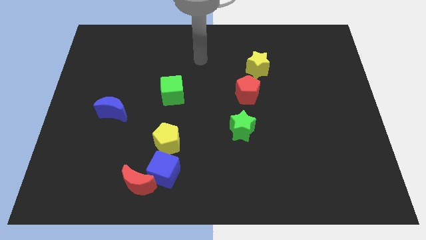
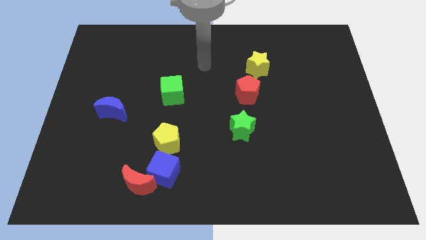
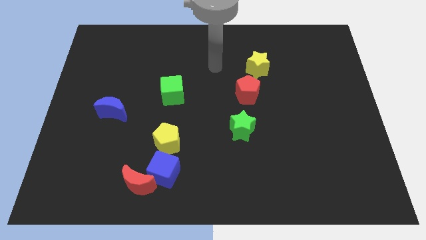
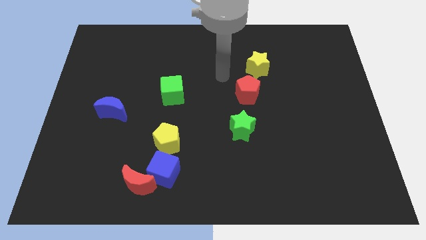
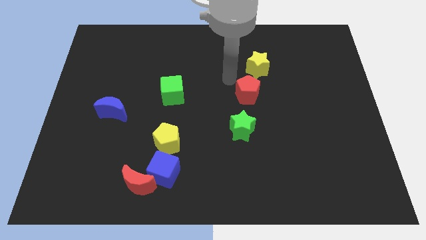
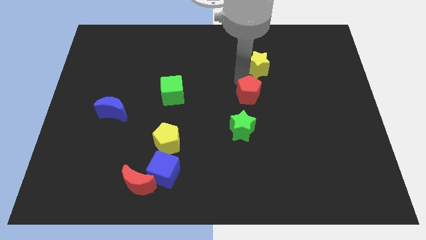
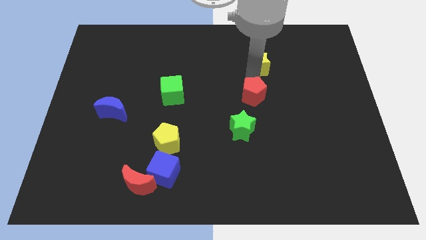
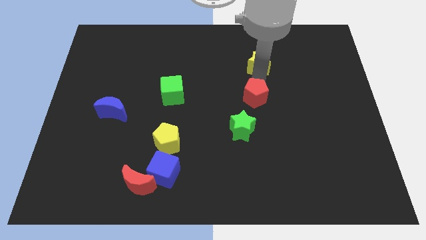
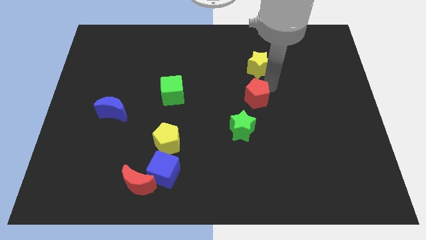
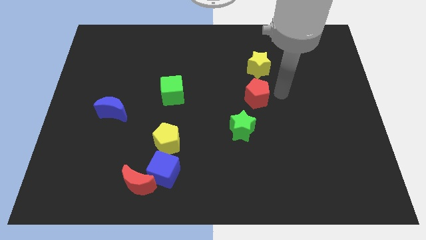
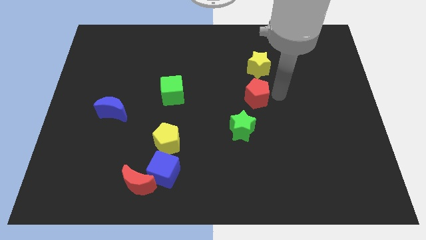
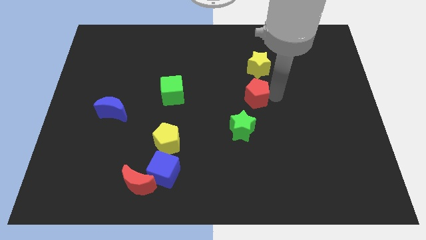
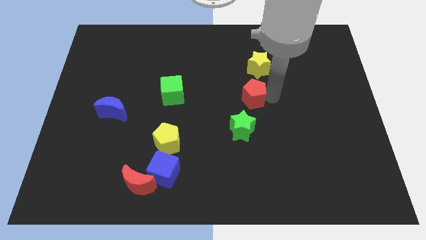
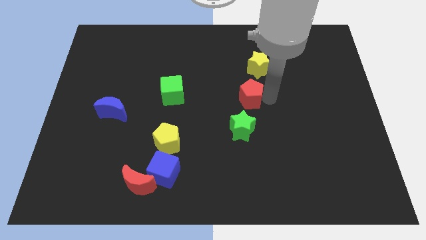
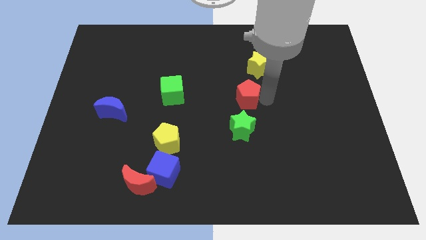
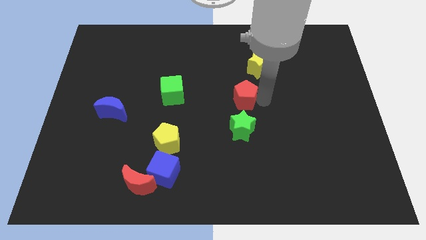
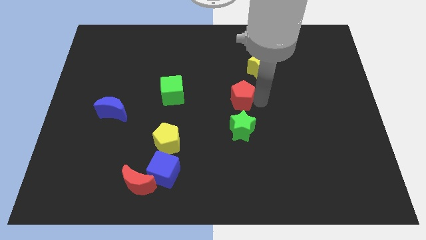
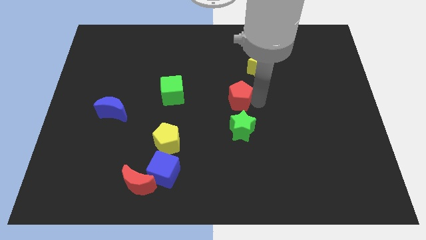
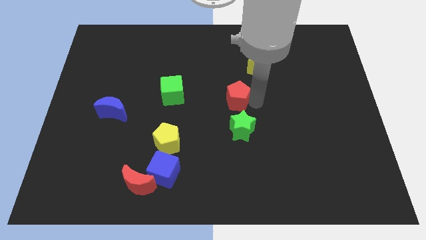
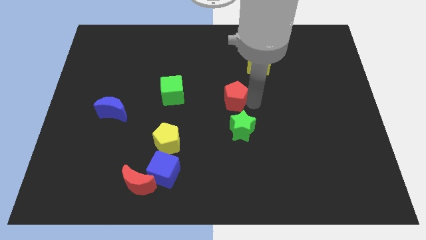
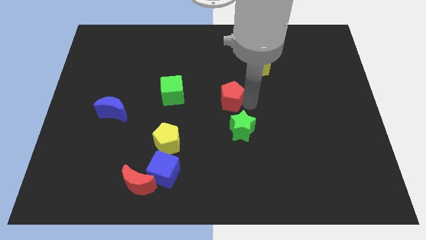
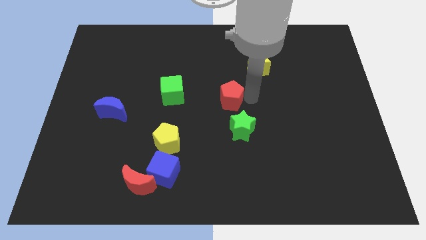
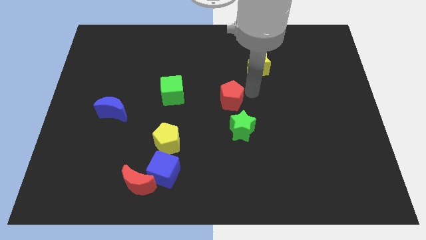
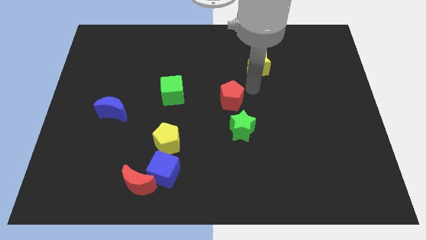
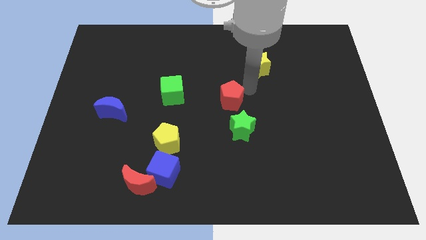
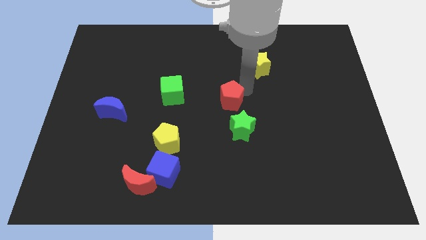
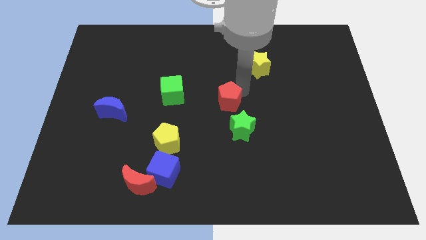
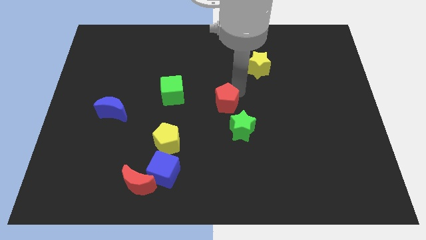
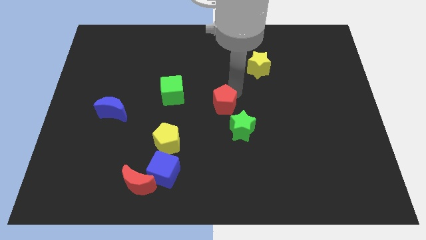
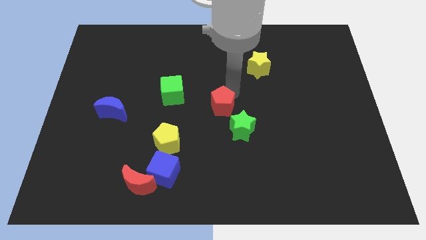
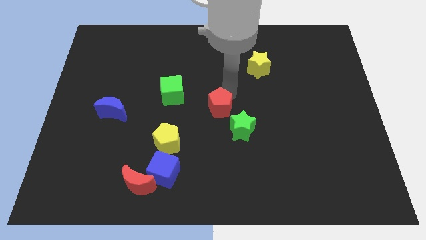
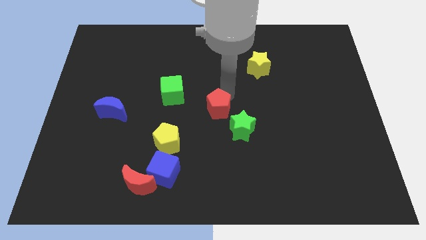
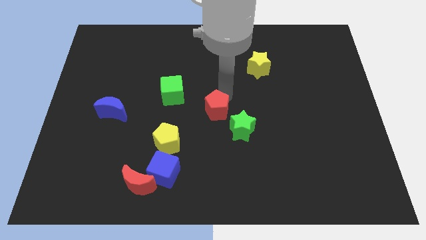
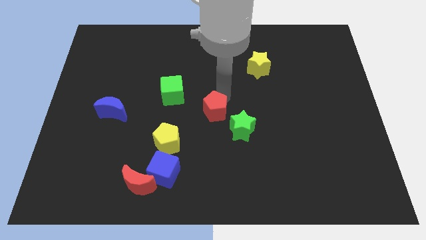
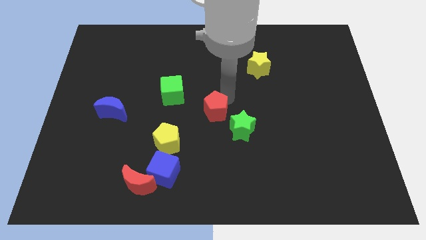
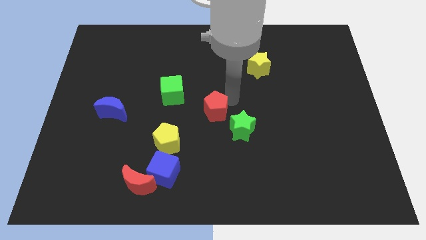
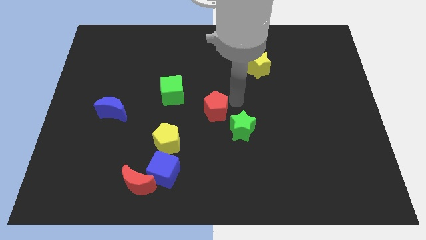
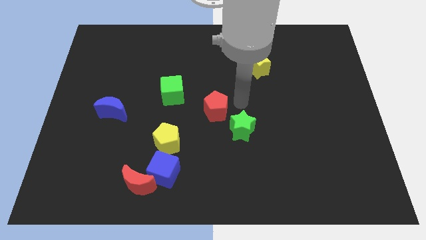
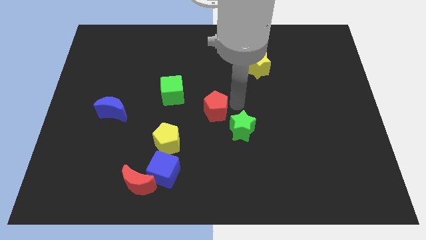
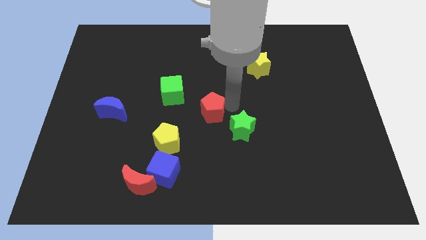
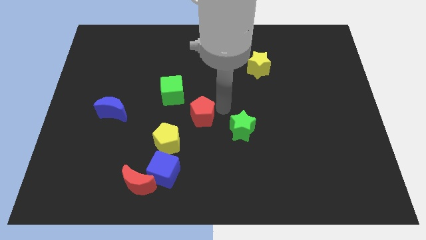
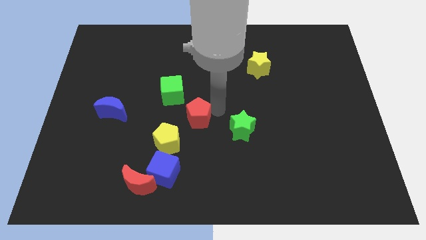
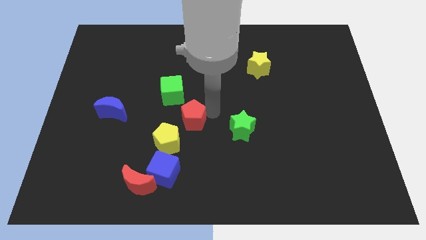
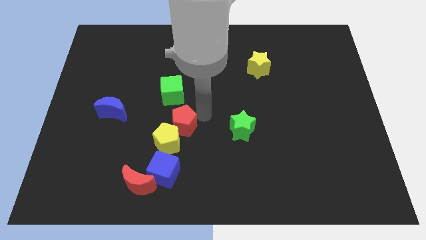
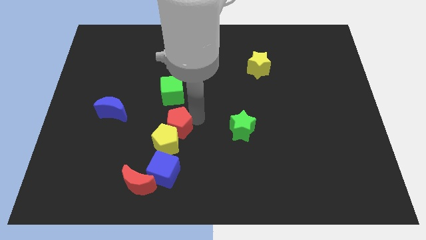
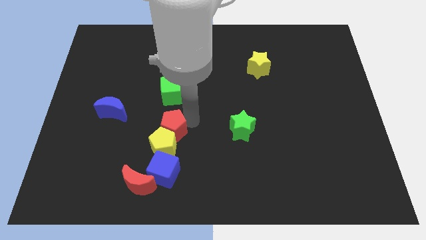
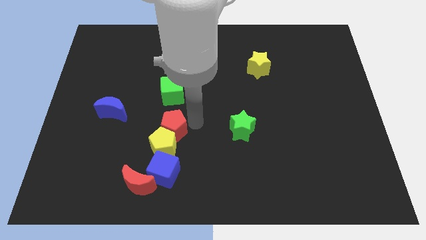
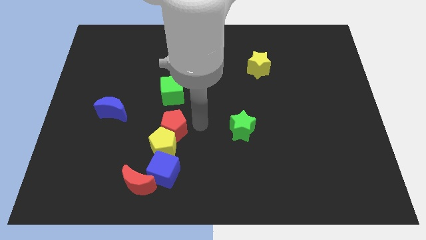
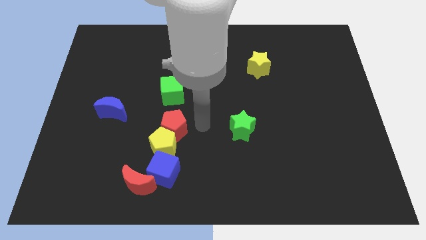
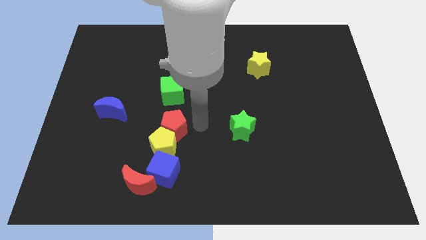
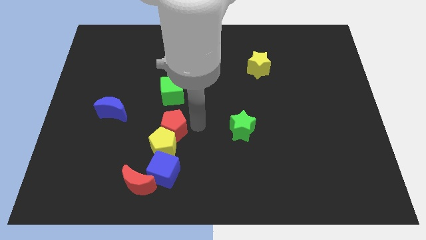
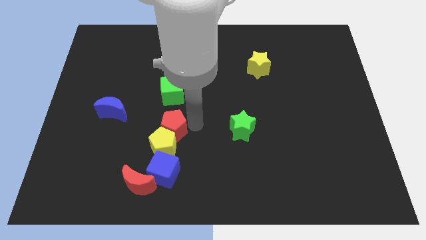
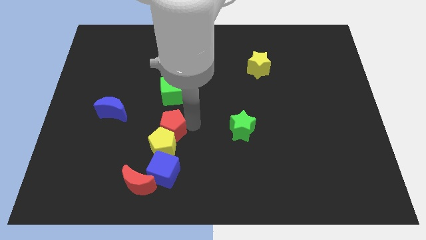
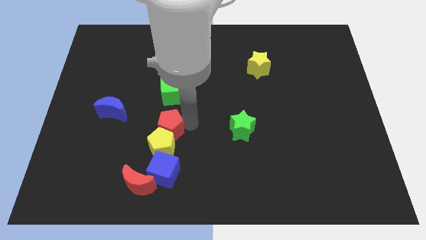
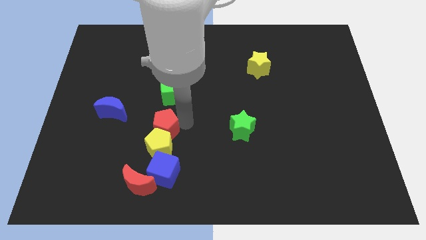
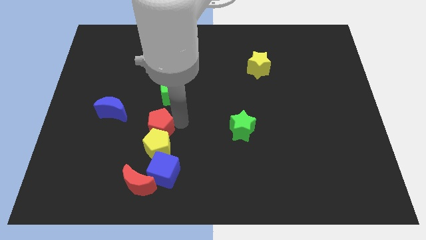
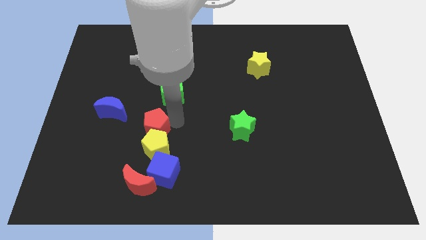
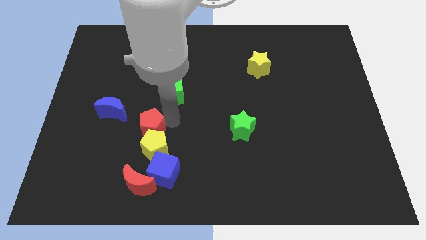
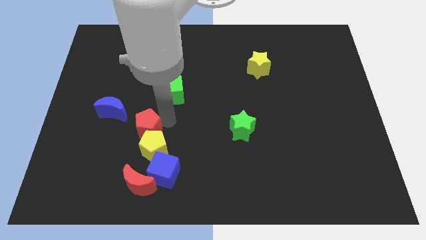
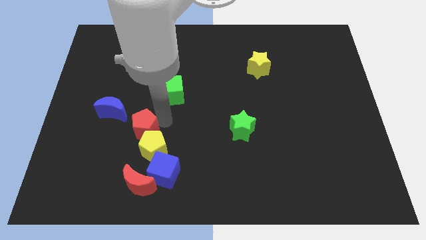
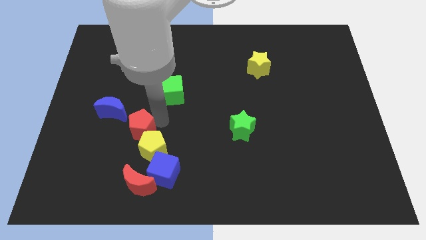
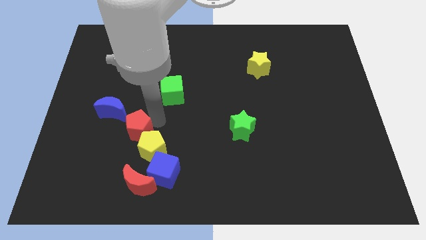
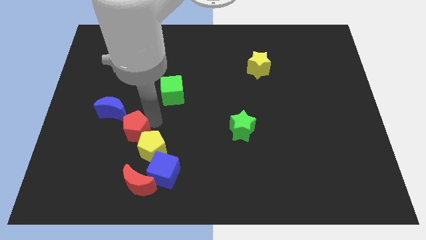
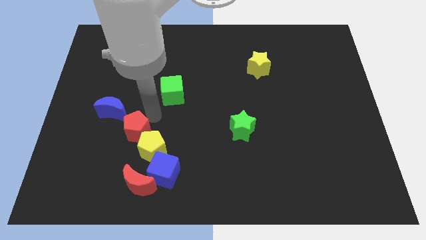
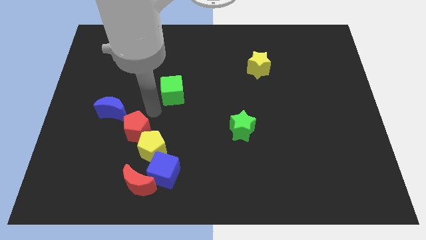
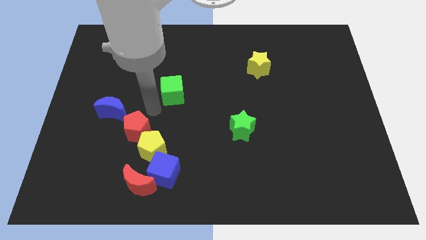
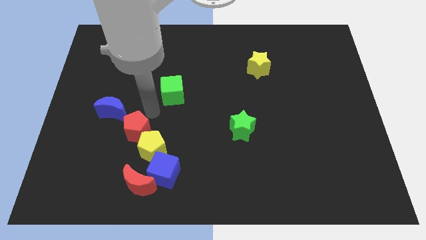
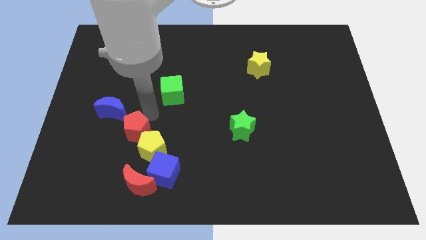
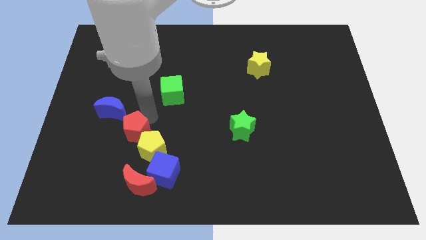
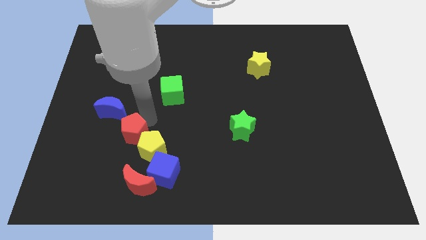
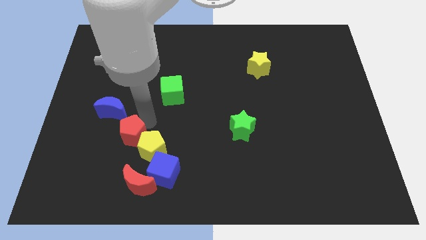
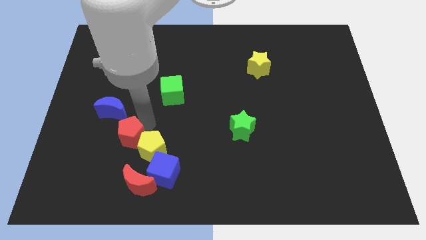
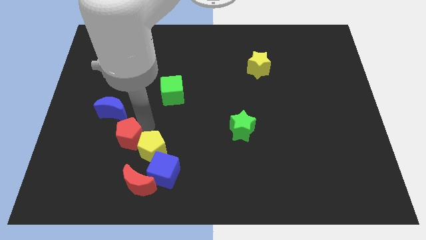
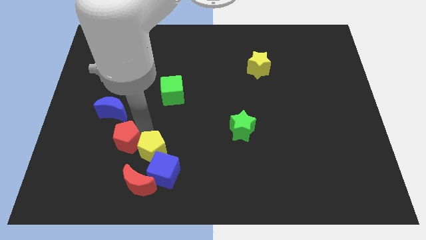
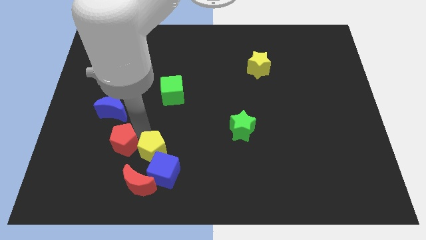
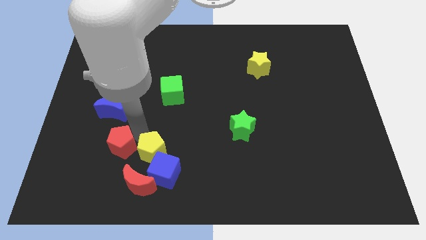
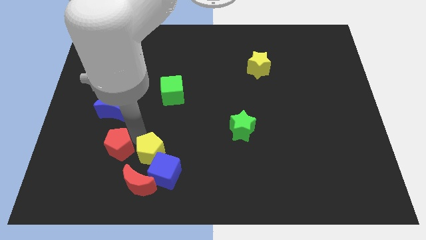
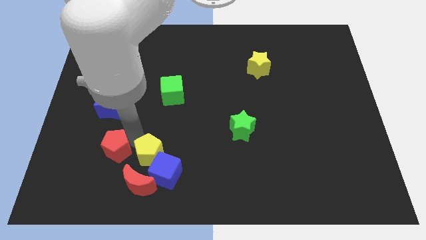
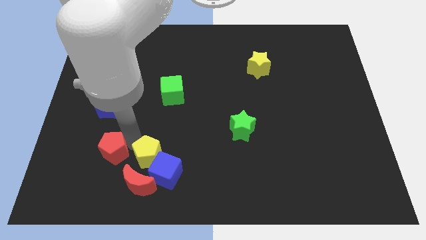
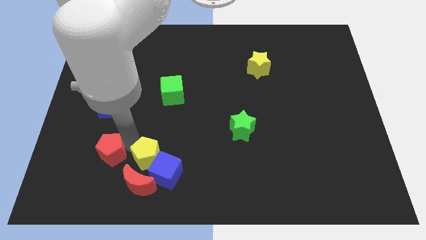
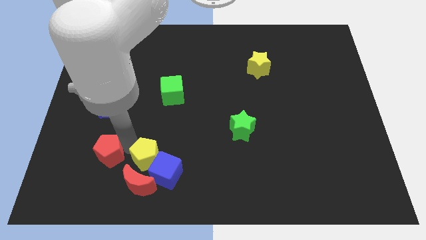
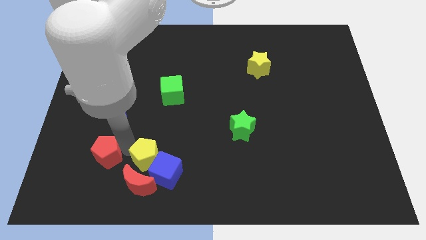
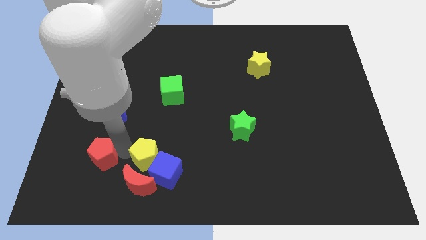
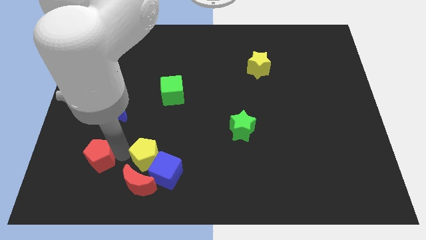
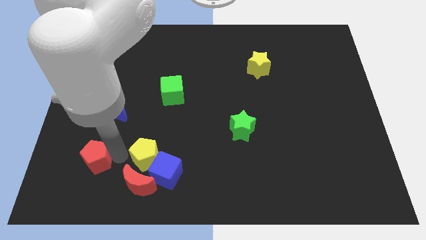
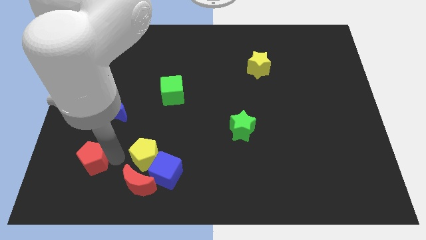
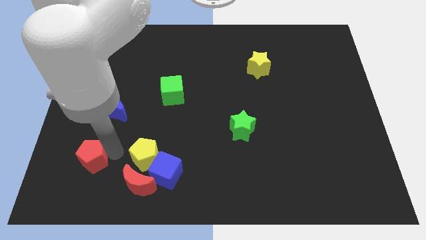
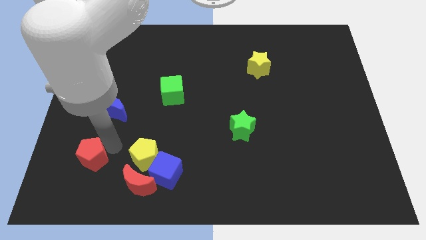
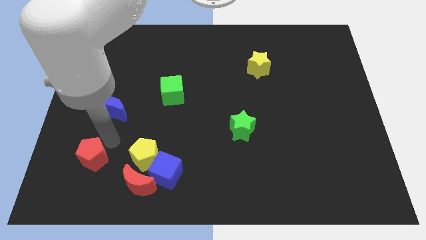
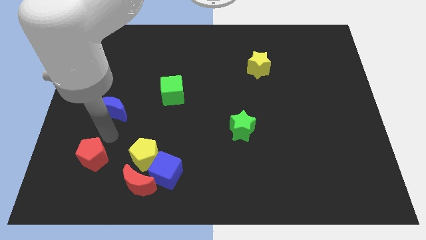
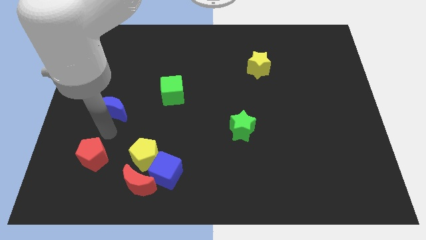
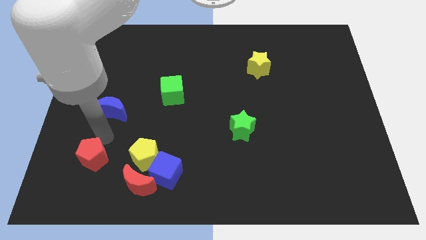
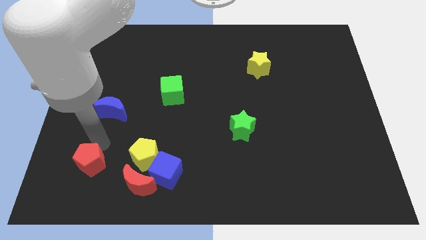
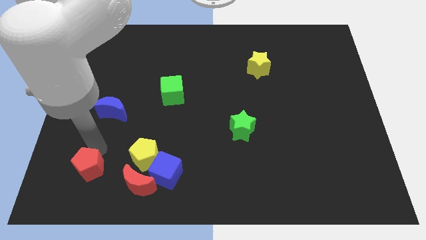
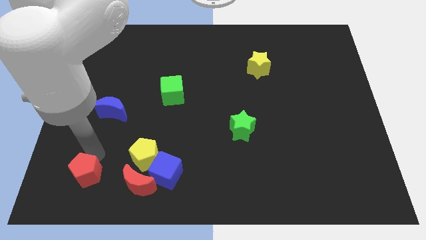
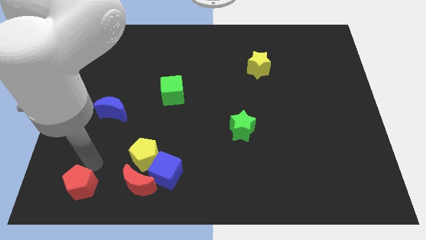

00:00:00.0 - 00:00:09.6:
move the red pentagon to the lower left corner
